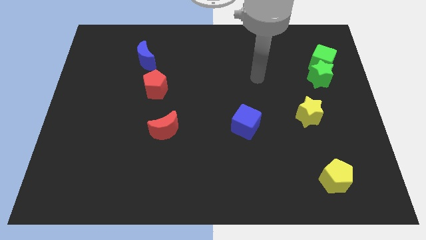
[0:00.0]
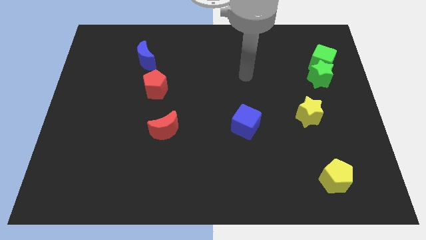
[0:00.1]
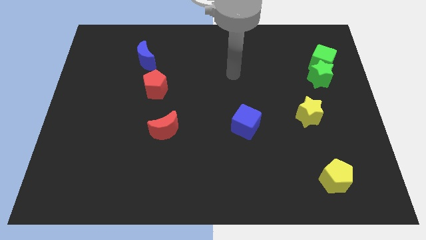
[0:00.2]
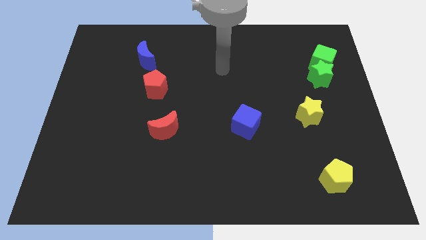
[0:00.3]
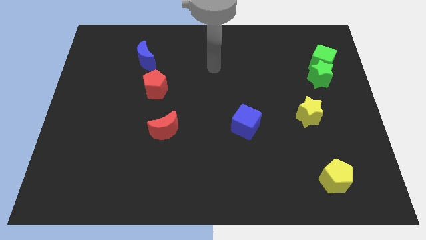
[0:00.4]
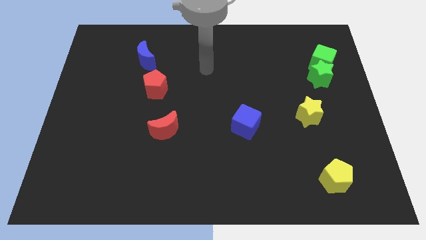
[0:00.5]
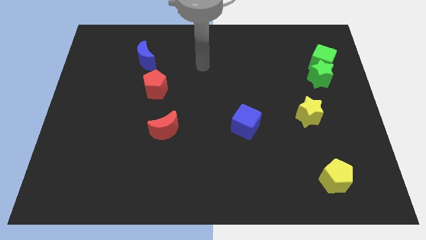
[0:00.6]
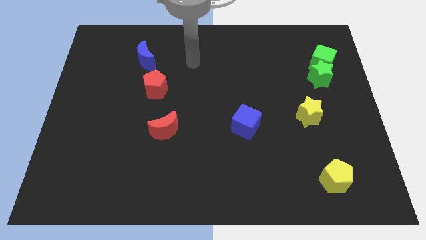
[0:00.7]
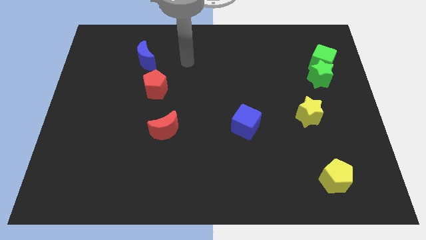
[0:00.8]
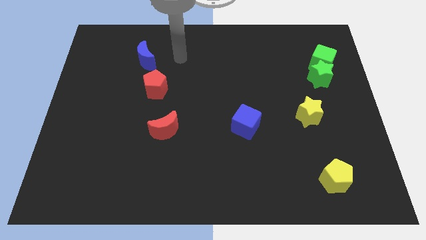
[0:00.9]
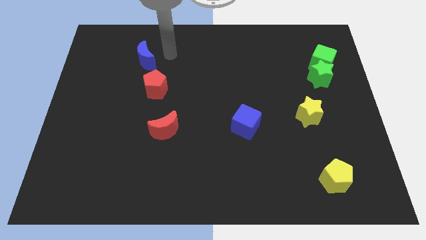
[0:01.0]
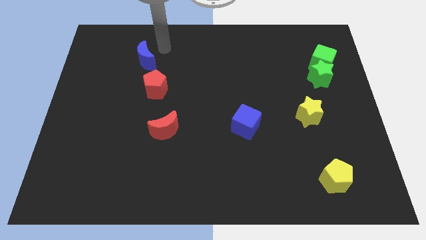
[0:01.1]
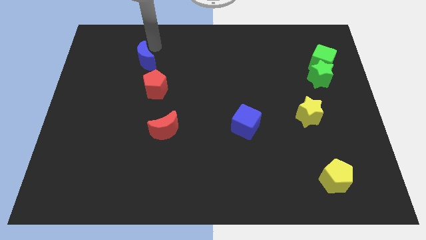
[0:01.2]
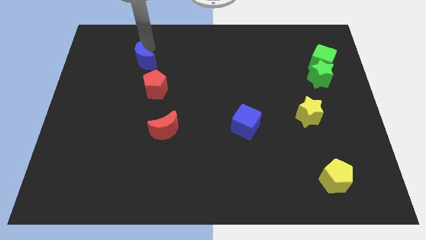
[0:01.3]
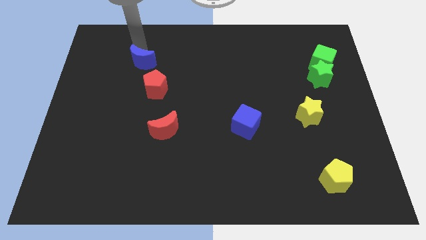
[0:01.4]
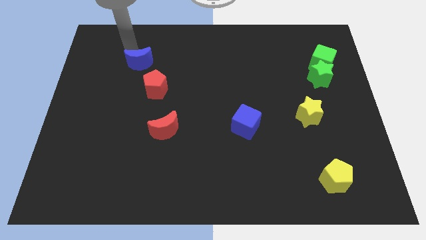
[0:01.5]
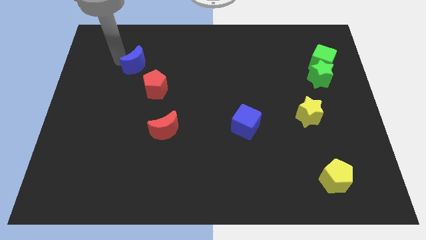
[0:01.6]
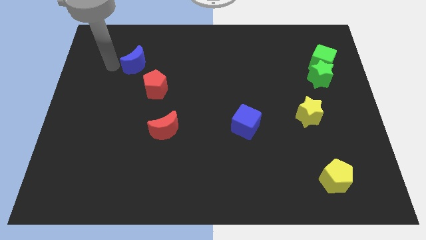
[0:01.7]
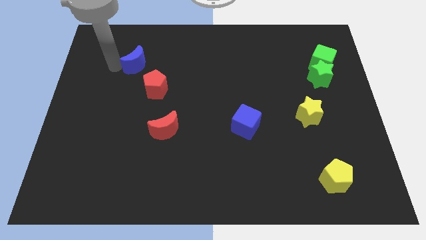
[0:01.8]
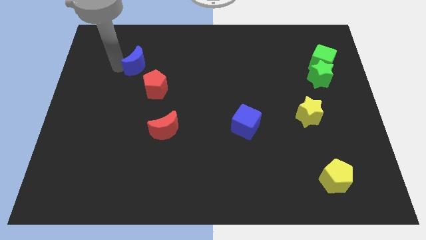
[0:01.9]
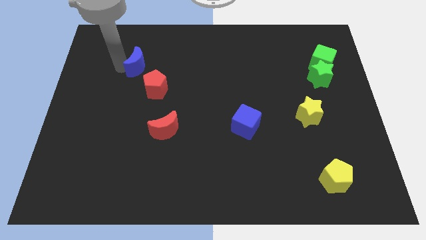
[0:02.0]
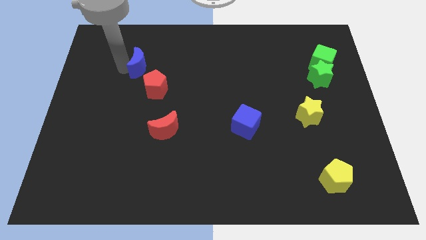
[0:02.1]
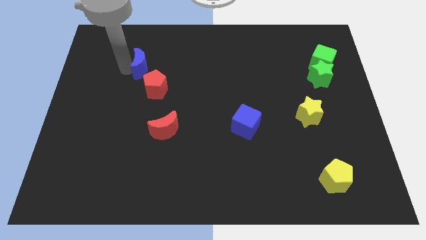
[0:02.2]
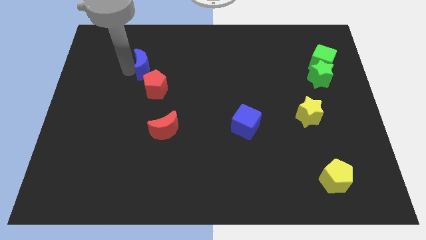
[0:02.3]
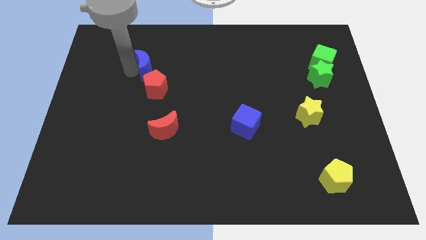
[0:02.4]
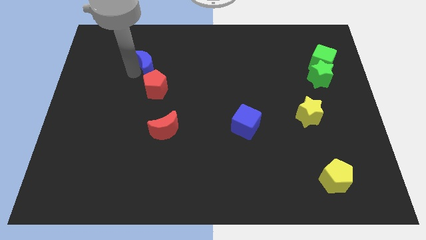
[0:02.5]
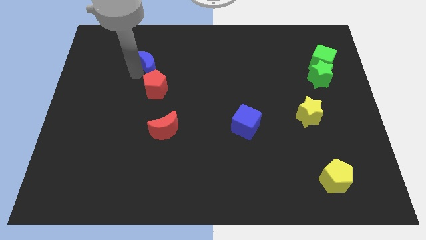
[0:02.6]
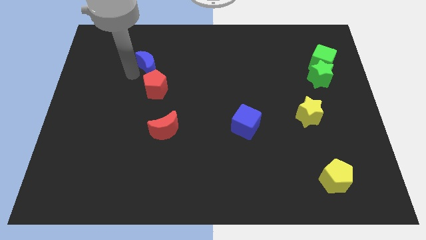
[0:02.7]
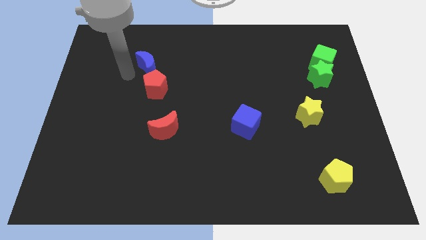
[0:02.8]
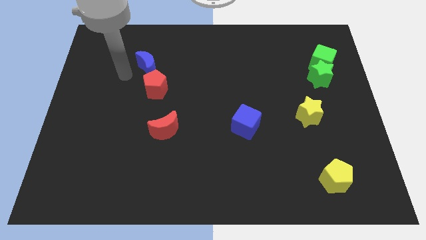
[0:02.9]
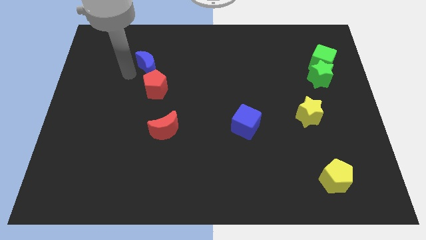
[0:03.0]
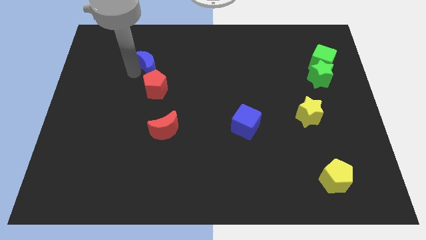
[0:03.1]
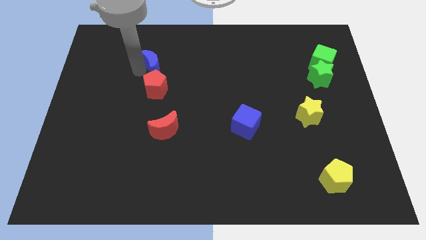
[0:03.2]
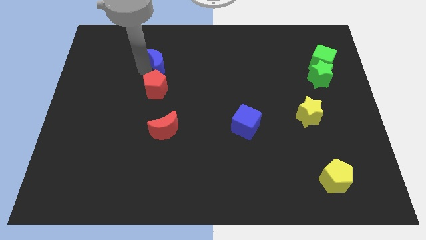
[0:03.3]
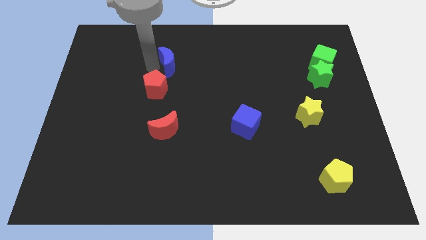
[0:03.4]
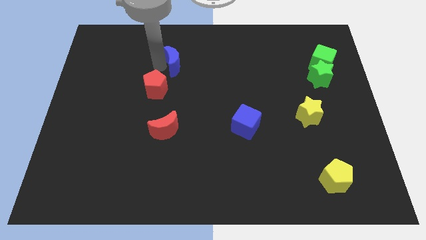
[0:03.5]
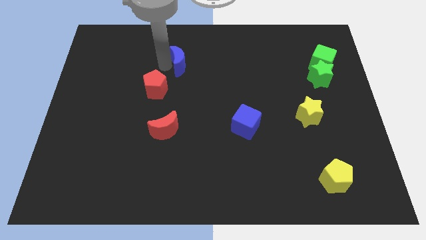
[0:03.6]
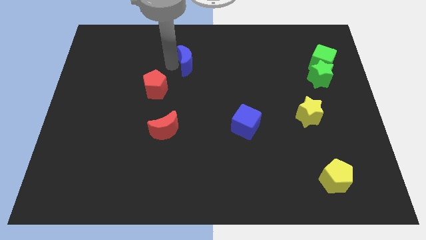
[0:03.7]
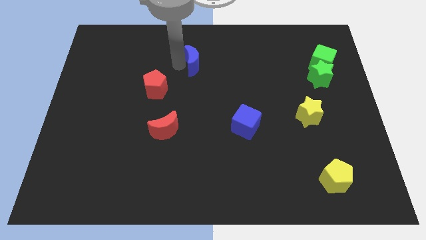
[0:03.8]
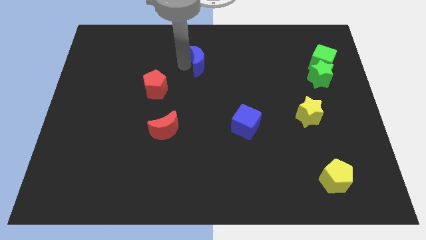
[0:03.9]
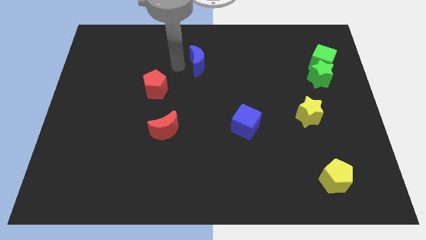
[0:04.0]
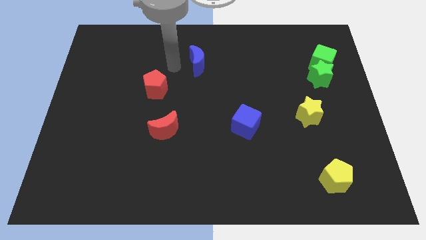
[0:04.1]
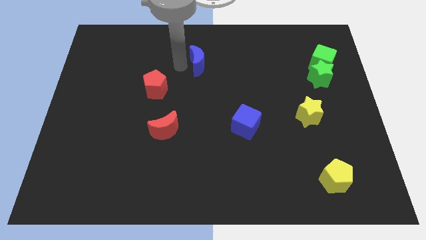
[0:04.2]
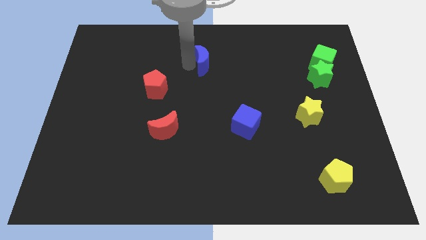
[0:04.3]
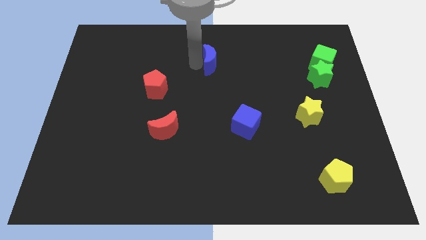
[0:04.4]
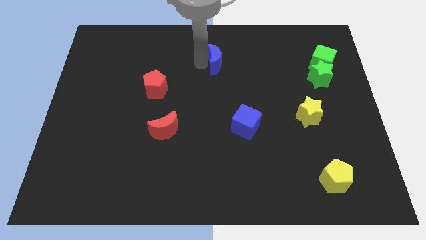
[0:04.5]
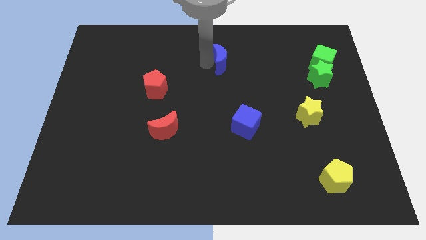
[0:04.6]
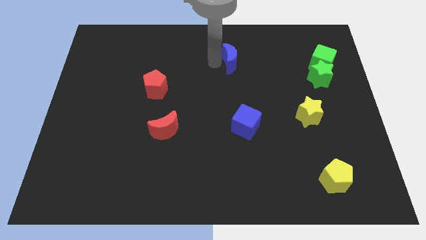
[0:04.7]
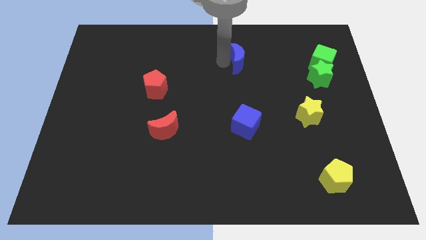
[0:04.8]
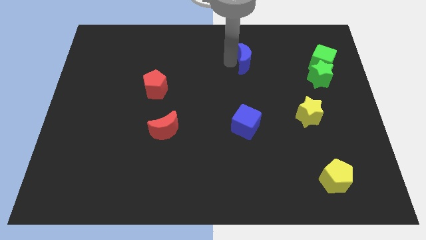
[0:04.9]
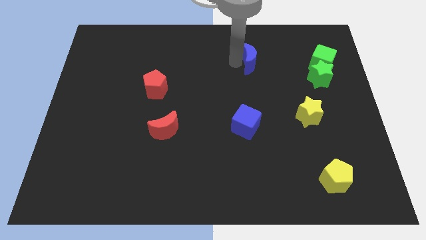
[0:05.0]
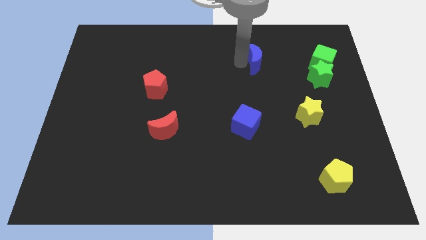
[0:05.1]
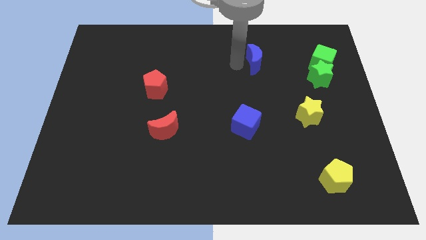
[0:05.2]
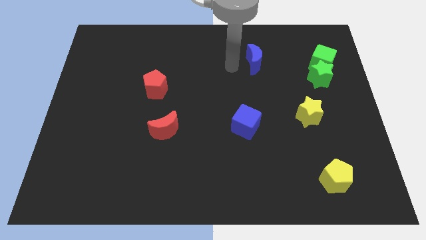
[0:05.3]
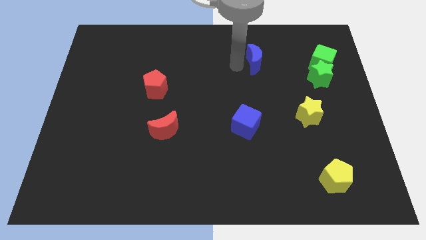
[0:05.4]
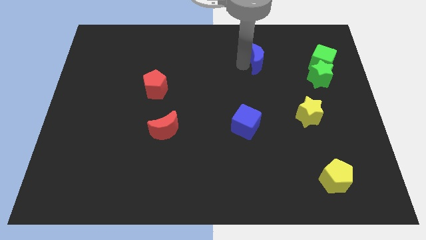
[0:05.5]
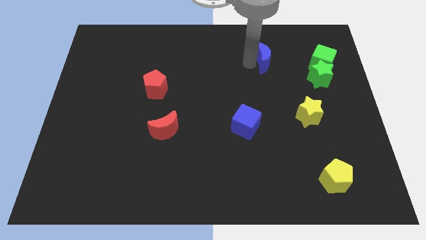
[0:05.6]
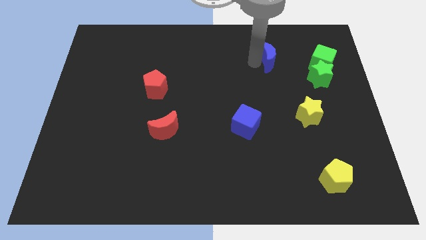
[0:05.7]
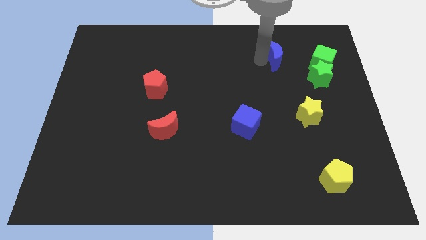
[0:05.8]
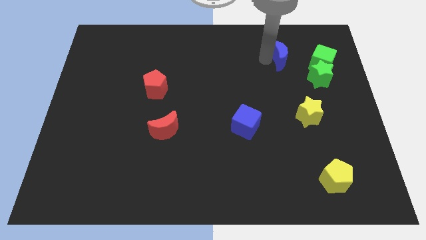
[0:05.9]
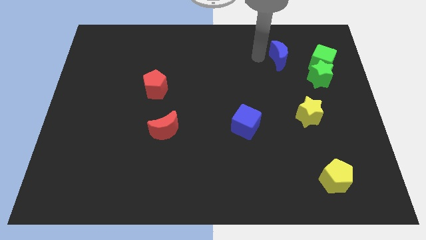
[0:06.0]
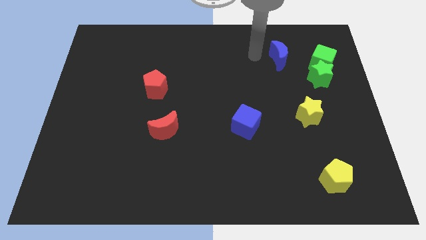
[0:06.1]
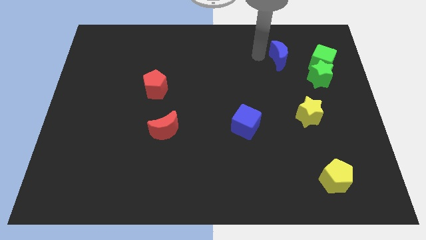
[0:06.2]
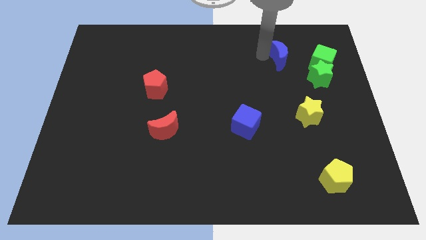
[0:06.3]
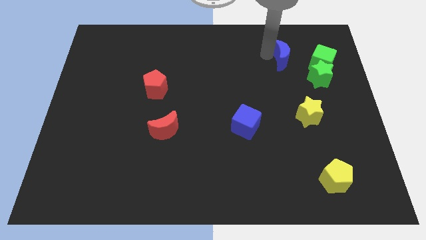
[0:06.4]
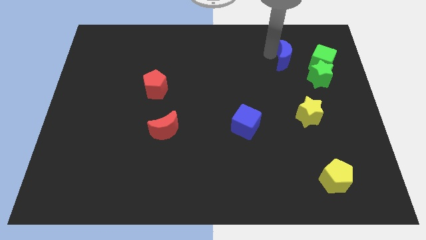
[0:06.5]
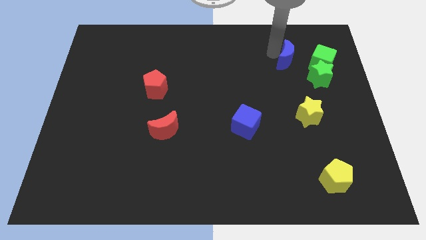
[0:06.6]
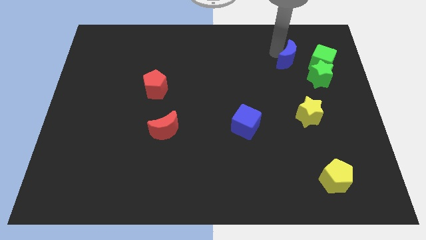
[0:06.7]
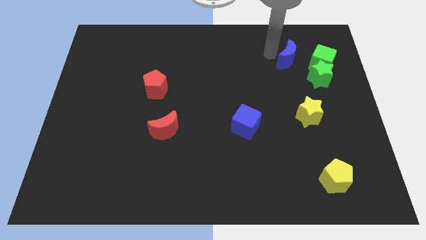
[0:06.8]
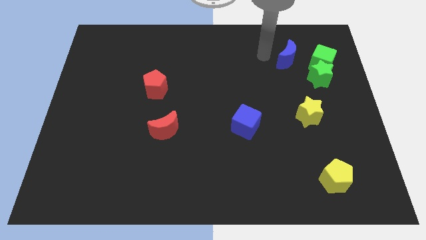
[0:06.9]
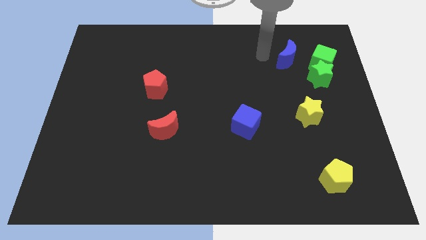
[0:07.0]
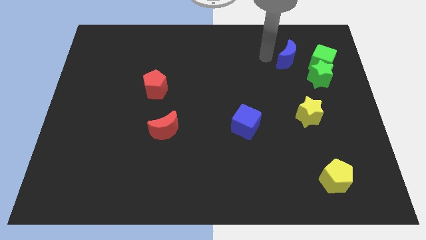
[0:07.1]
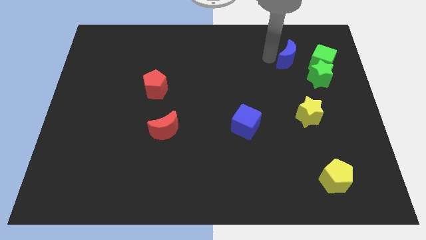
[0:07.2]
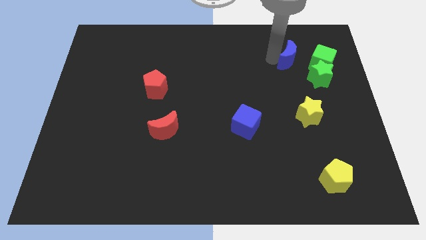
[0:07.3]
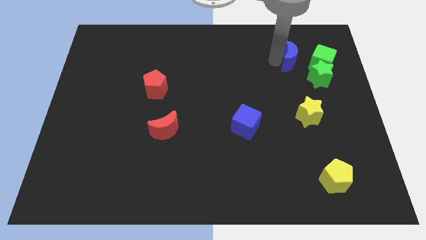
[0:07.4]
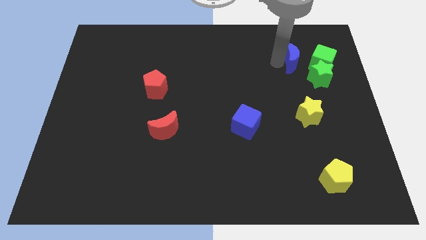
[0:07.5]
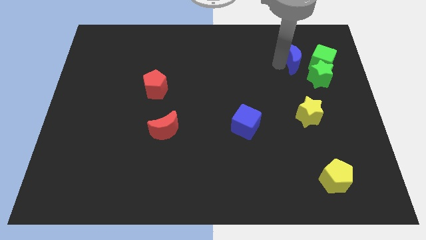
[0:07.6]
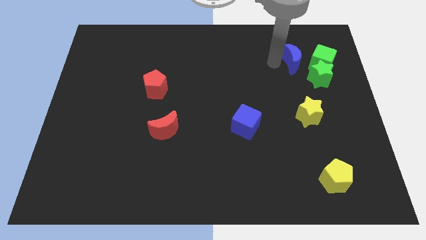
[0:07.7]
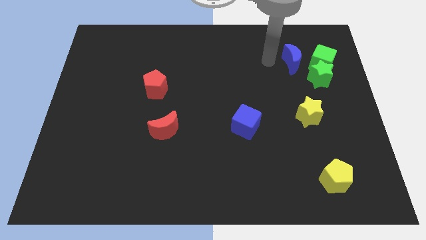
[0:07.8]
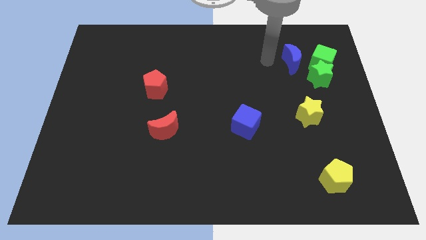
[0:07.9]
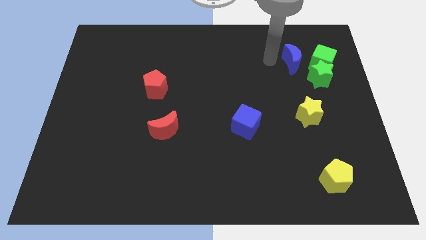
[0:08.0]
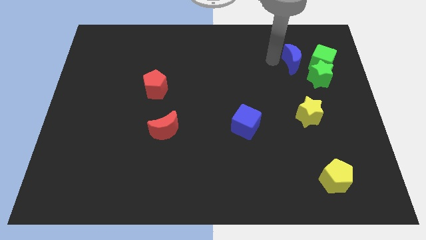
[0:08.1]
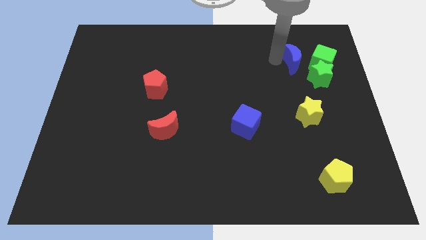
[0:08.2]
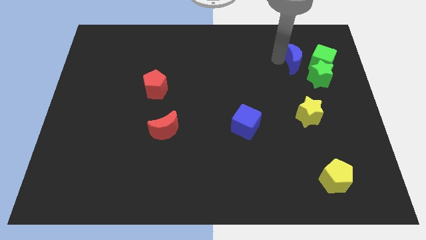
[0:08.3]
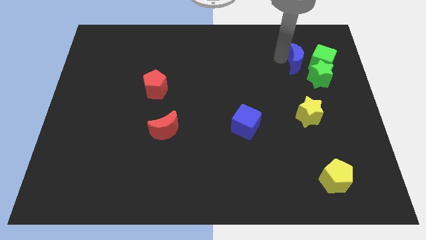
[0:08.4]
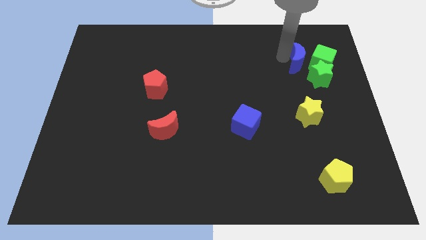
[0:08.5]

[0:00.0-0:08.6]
push the blue moon to the green cube
